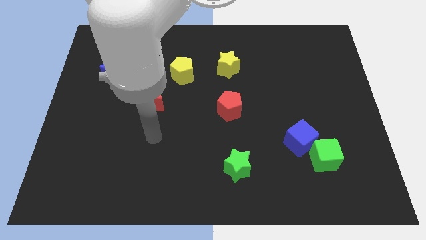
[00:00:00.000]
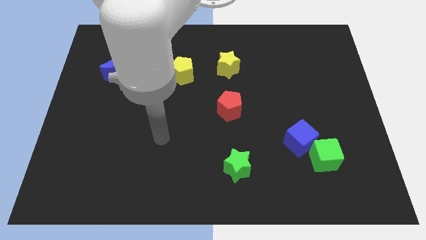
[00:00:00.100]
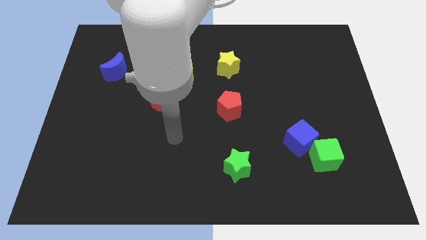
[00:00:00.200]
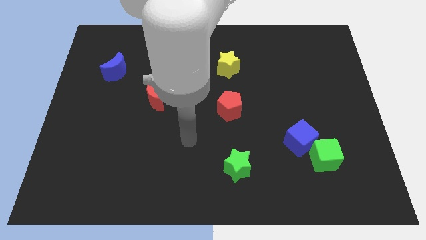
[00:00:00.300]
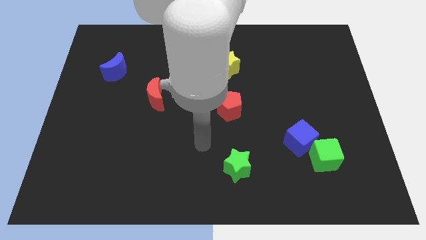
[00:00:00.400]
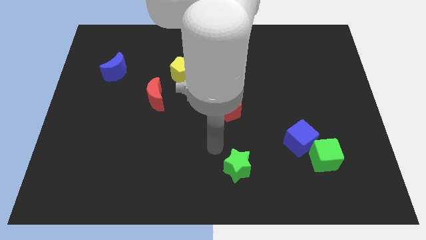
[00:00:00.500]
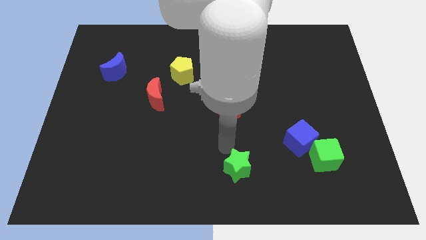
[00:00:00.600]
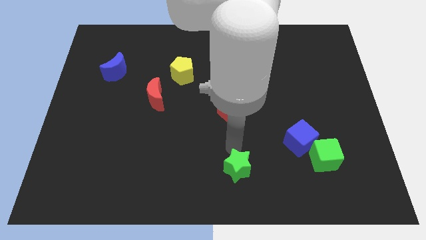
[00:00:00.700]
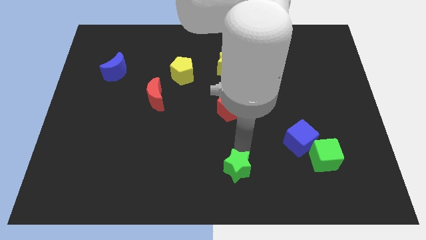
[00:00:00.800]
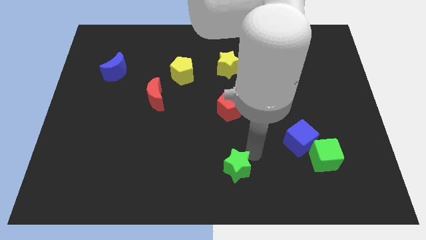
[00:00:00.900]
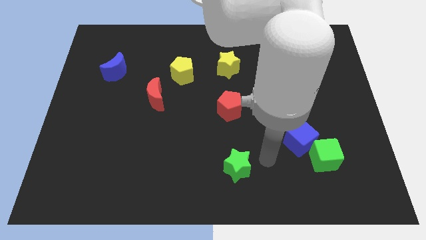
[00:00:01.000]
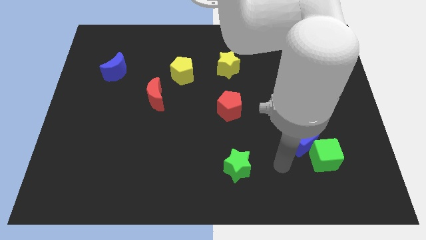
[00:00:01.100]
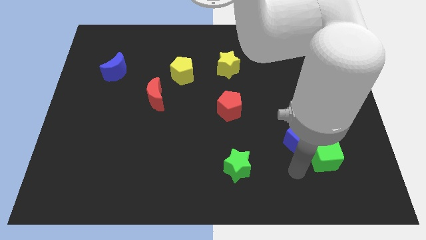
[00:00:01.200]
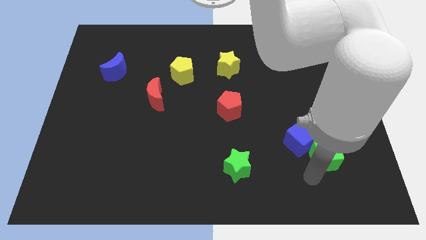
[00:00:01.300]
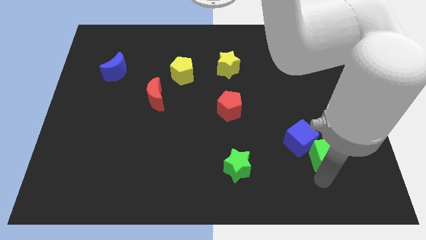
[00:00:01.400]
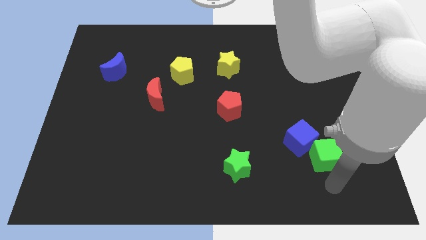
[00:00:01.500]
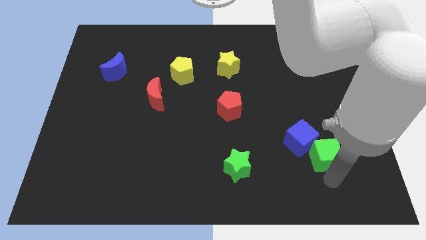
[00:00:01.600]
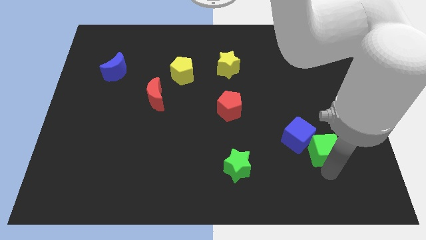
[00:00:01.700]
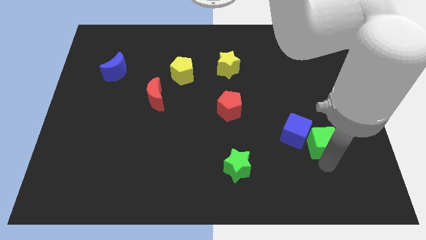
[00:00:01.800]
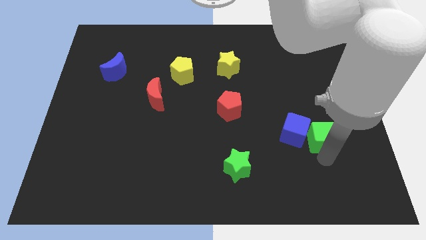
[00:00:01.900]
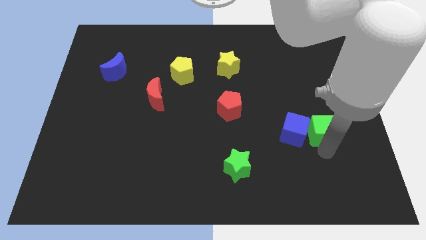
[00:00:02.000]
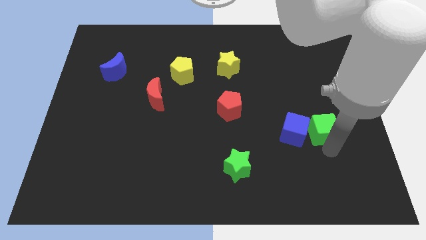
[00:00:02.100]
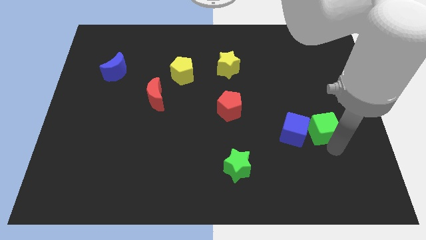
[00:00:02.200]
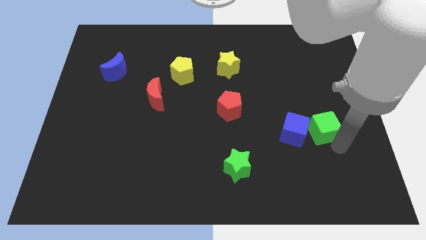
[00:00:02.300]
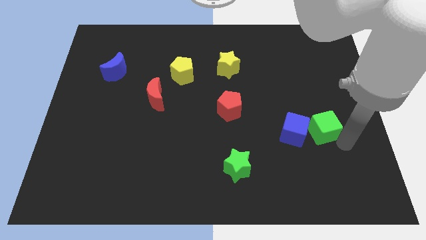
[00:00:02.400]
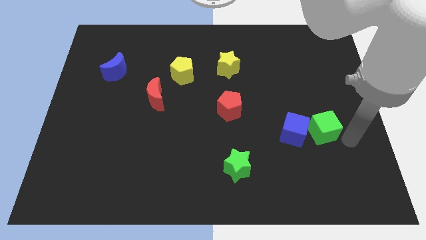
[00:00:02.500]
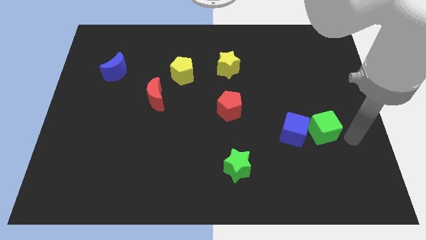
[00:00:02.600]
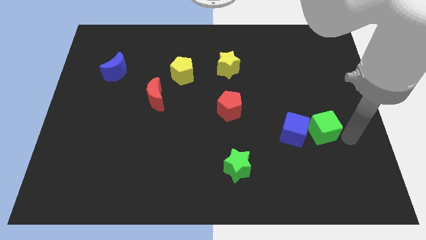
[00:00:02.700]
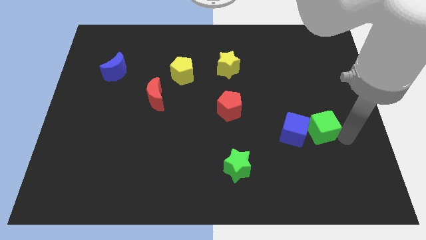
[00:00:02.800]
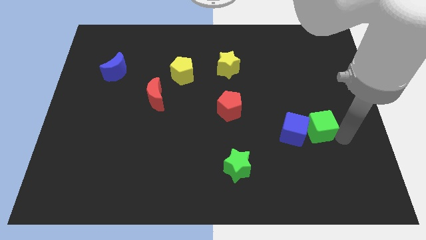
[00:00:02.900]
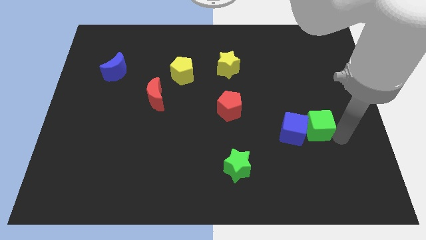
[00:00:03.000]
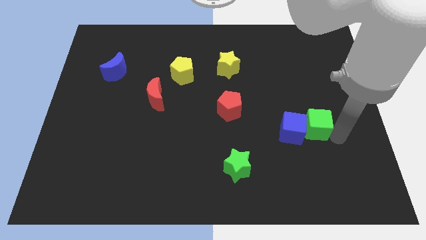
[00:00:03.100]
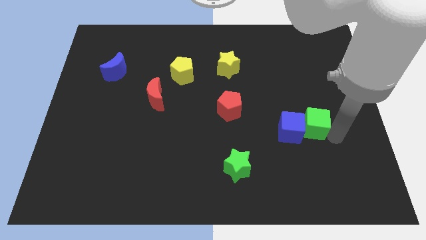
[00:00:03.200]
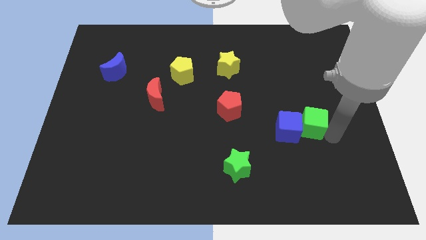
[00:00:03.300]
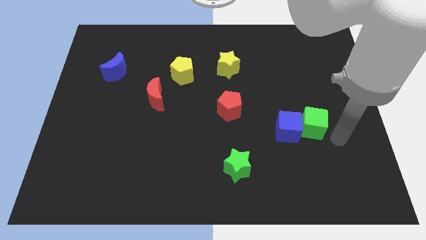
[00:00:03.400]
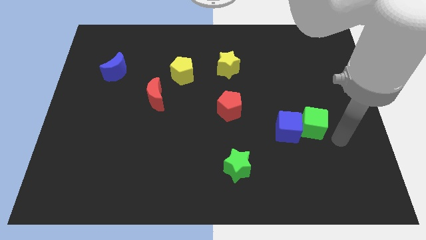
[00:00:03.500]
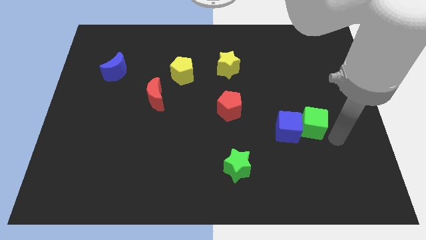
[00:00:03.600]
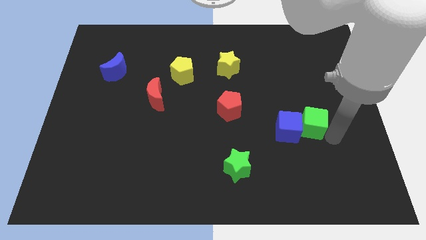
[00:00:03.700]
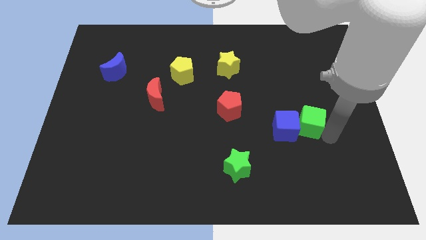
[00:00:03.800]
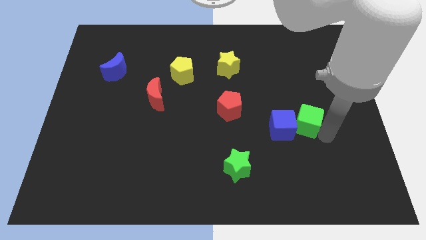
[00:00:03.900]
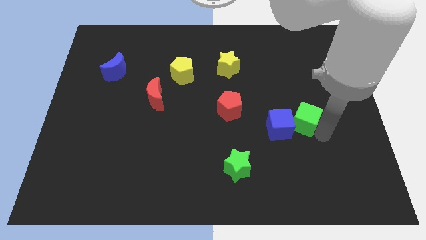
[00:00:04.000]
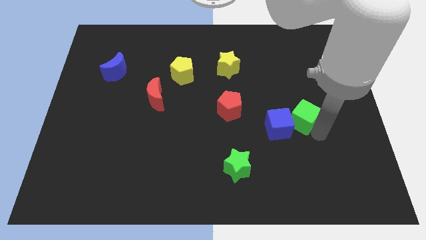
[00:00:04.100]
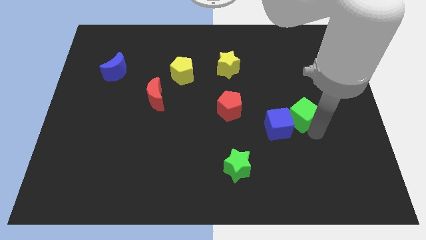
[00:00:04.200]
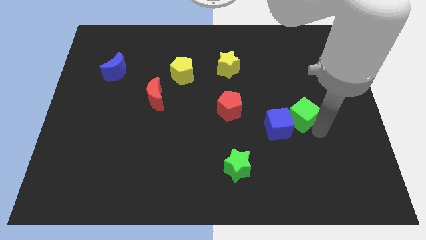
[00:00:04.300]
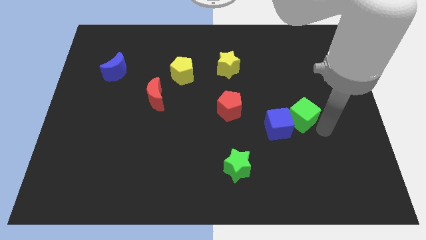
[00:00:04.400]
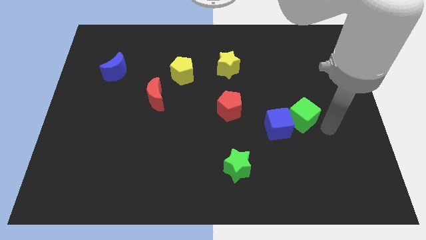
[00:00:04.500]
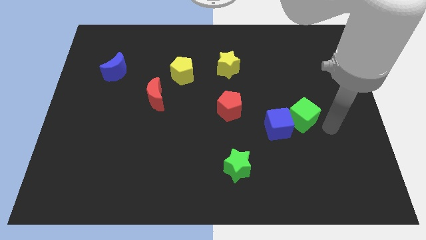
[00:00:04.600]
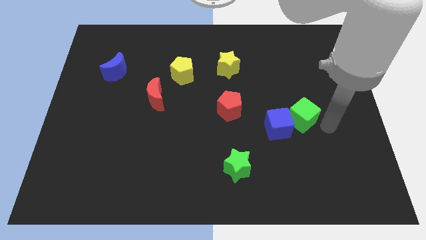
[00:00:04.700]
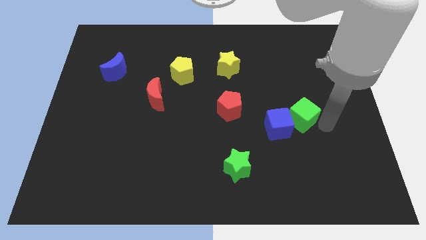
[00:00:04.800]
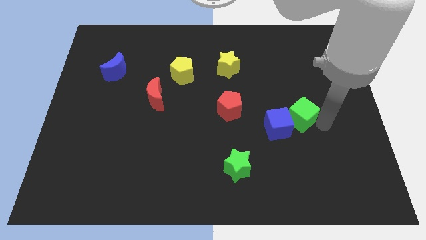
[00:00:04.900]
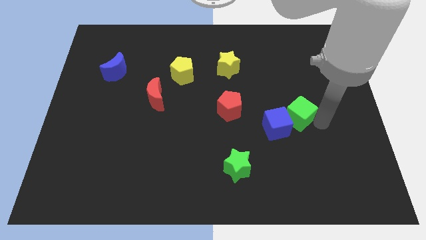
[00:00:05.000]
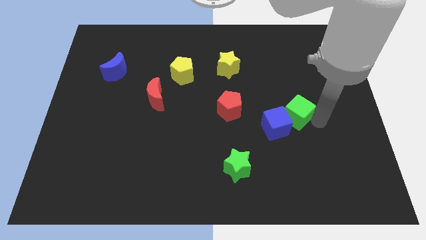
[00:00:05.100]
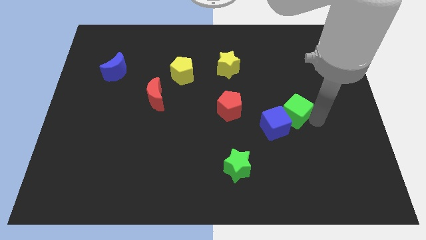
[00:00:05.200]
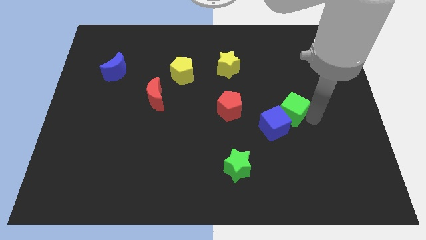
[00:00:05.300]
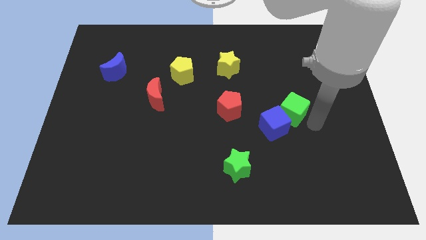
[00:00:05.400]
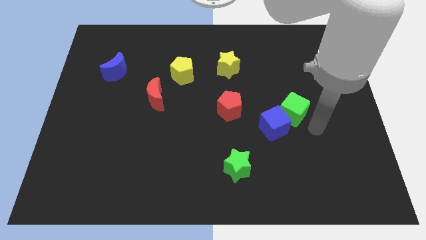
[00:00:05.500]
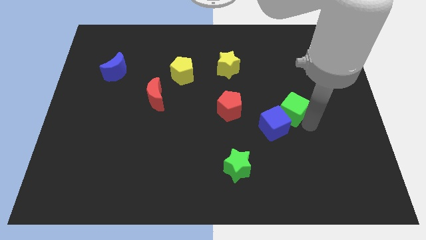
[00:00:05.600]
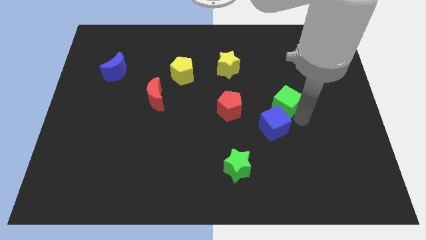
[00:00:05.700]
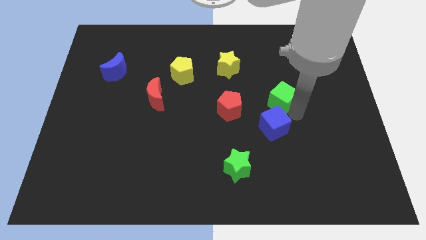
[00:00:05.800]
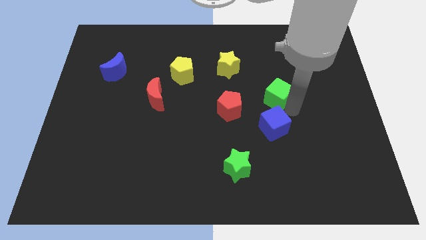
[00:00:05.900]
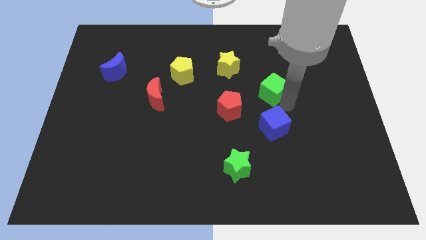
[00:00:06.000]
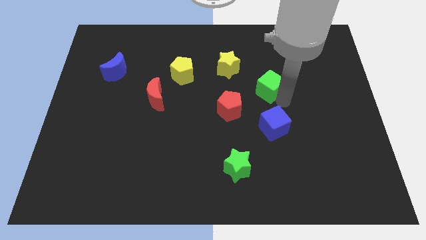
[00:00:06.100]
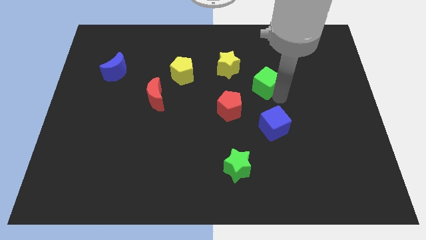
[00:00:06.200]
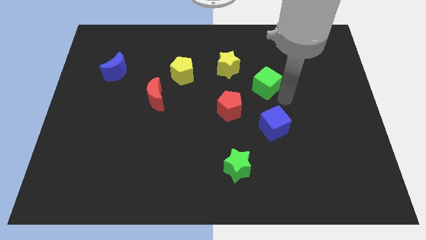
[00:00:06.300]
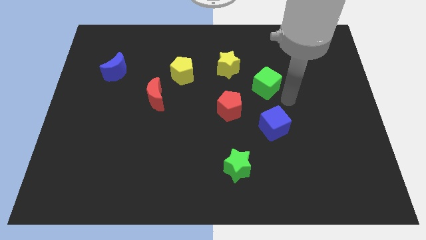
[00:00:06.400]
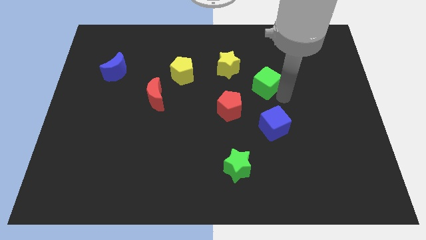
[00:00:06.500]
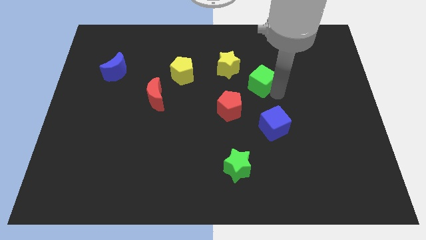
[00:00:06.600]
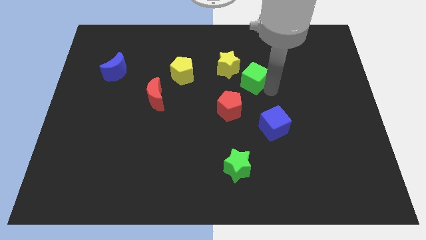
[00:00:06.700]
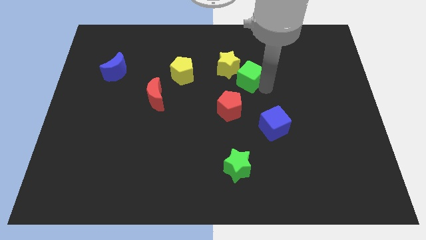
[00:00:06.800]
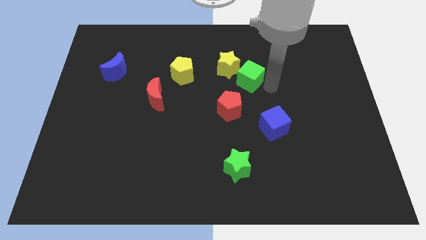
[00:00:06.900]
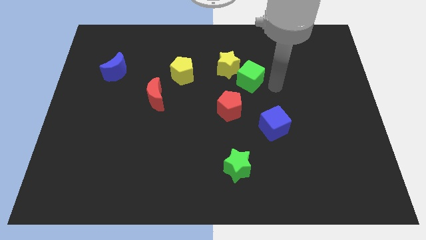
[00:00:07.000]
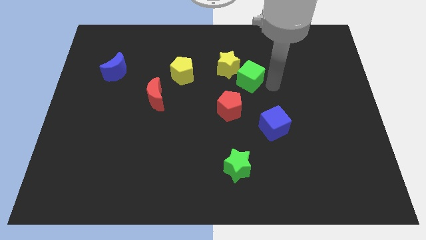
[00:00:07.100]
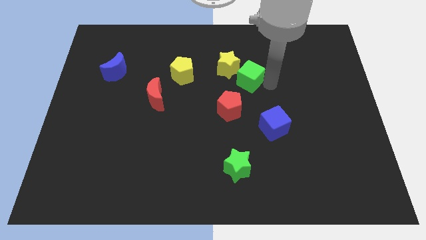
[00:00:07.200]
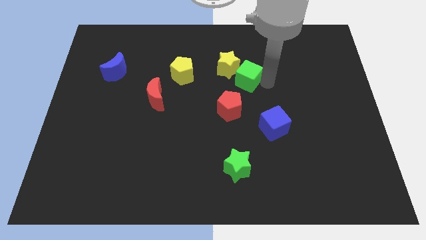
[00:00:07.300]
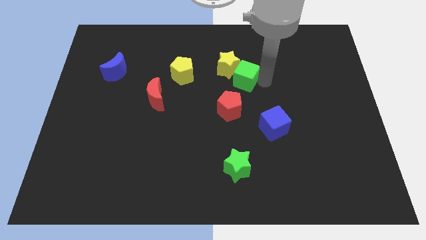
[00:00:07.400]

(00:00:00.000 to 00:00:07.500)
push the green cube just right of the yellow pentagon

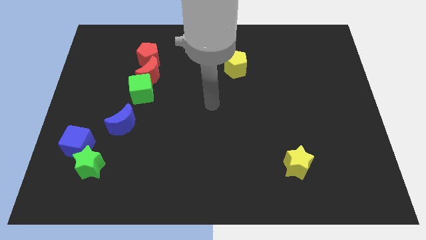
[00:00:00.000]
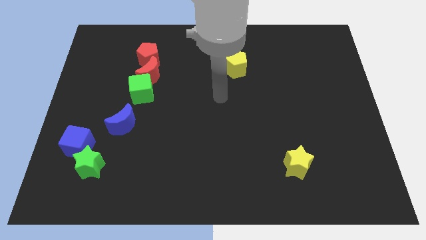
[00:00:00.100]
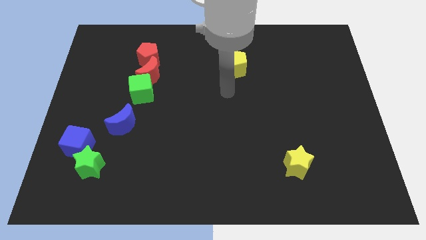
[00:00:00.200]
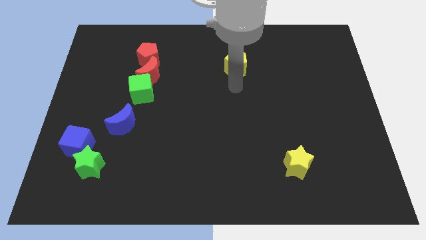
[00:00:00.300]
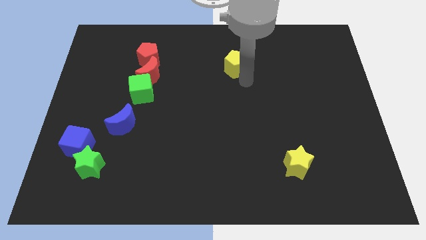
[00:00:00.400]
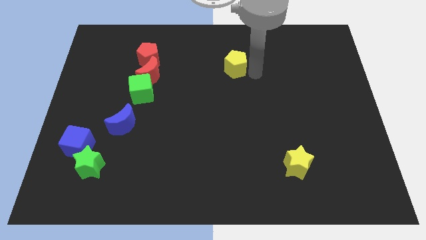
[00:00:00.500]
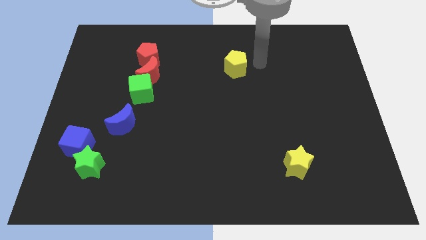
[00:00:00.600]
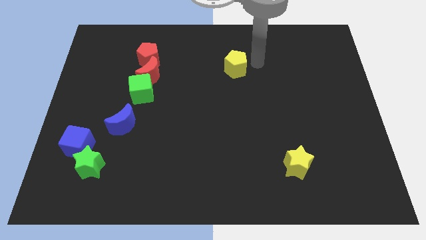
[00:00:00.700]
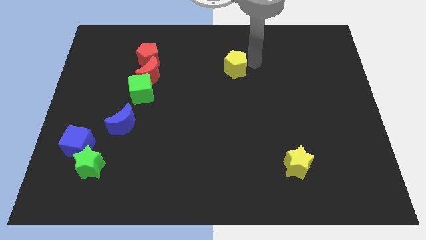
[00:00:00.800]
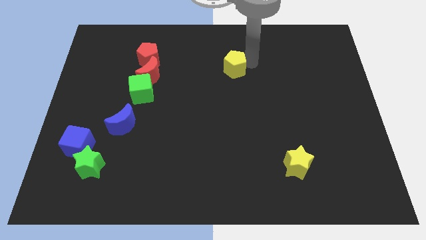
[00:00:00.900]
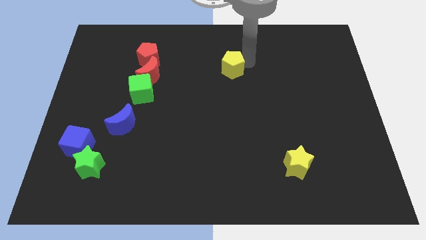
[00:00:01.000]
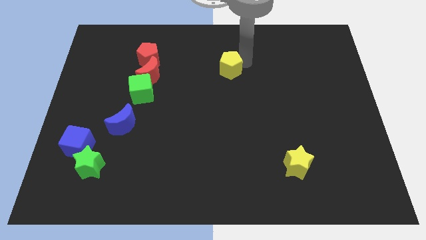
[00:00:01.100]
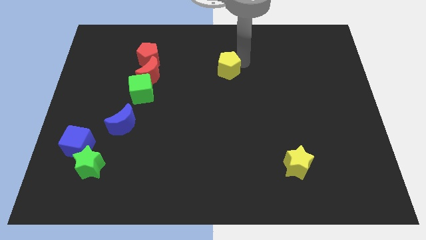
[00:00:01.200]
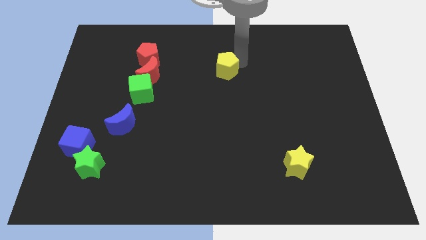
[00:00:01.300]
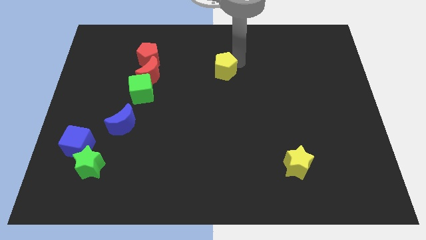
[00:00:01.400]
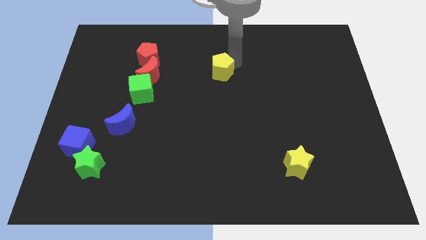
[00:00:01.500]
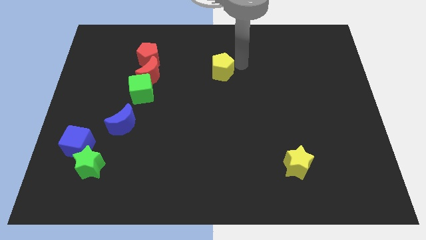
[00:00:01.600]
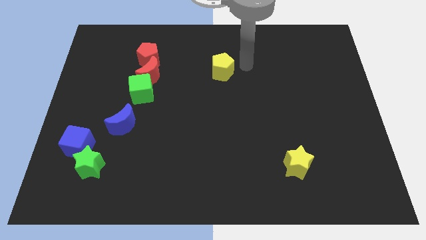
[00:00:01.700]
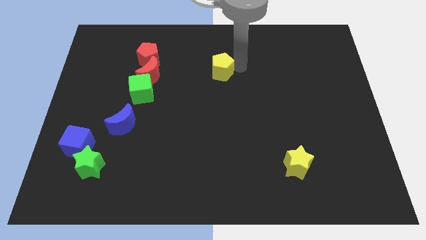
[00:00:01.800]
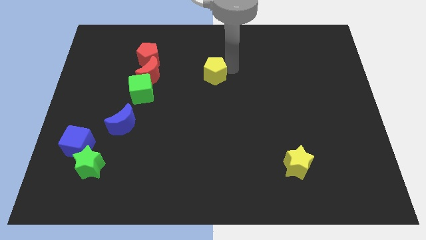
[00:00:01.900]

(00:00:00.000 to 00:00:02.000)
push the yellow pentagon just right of the red moon
